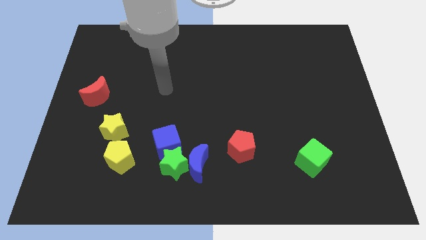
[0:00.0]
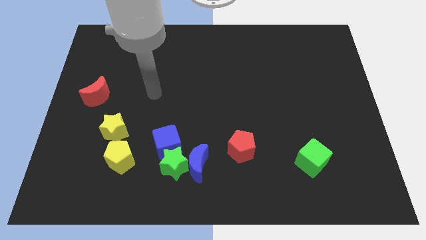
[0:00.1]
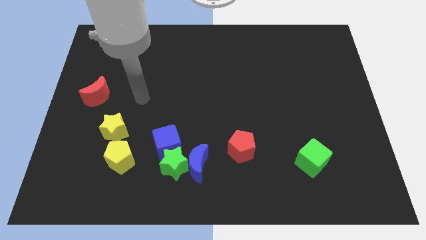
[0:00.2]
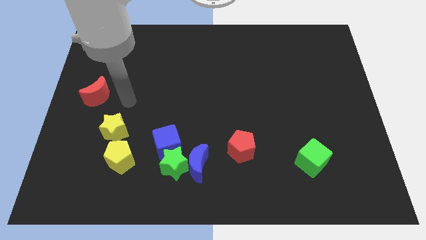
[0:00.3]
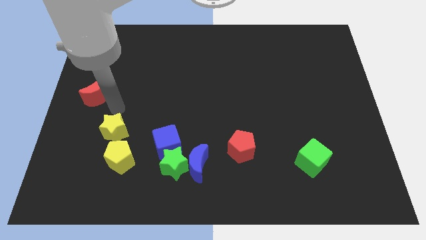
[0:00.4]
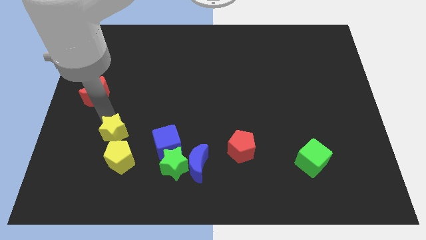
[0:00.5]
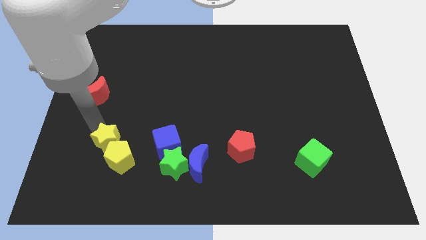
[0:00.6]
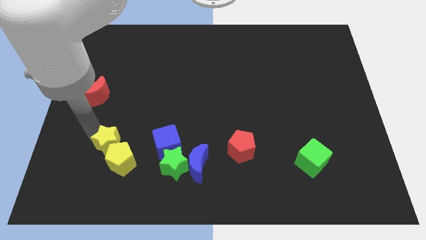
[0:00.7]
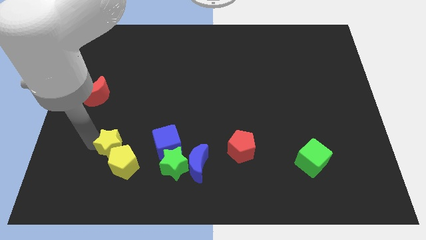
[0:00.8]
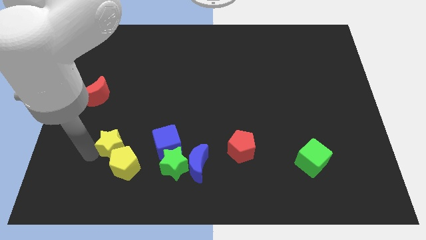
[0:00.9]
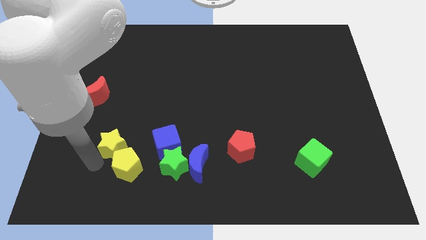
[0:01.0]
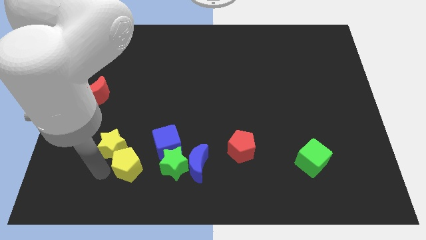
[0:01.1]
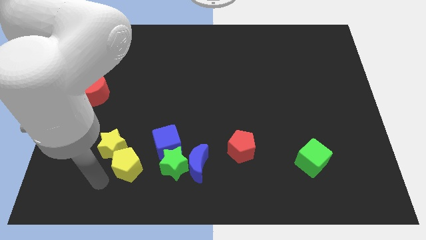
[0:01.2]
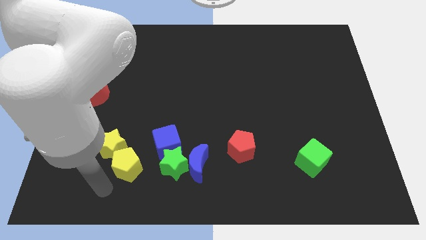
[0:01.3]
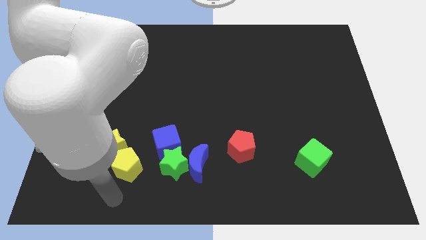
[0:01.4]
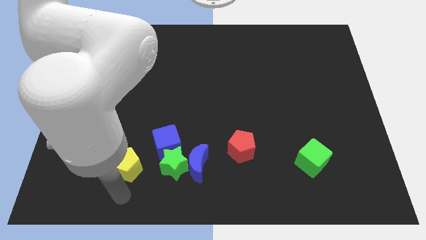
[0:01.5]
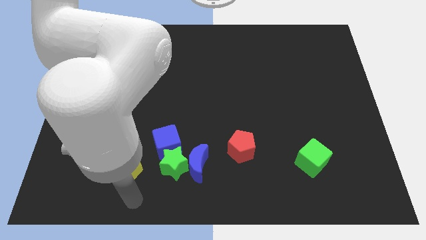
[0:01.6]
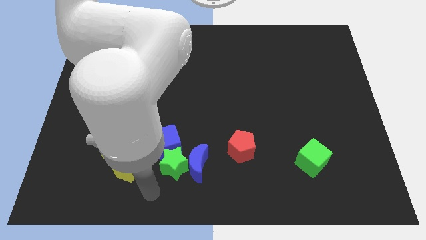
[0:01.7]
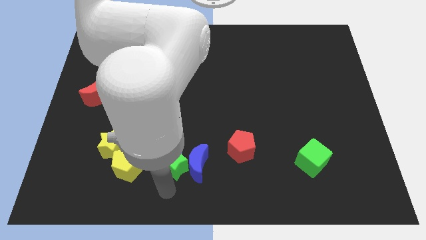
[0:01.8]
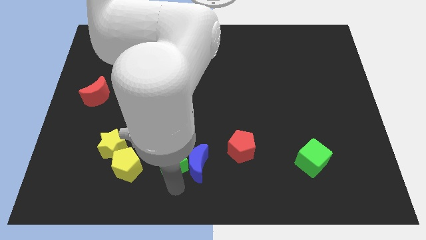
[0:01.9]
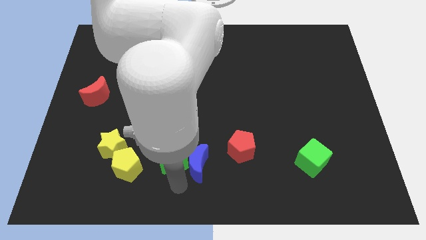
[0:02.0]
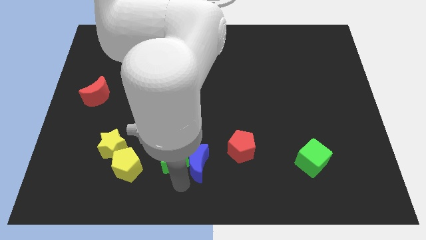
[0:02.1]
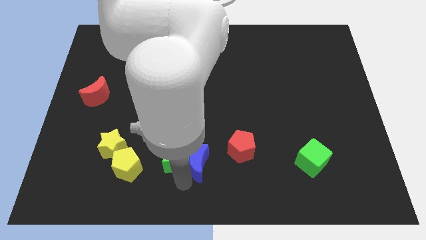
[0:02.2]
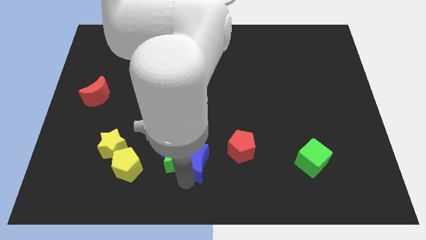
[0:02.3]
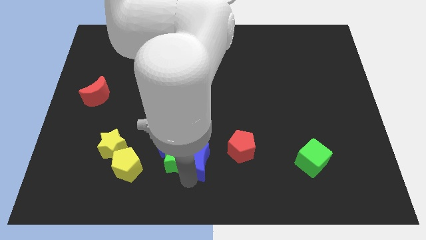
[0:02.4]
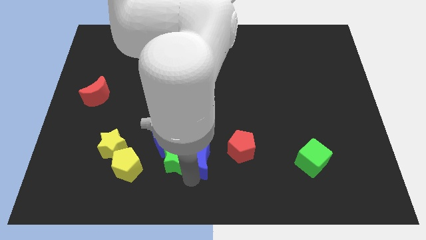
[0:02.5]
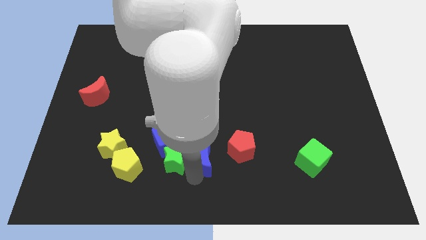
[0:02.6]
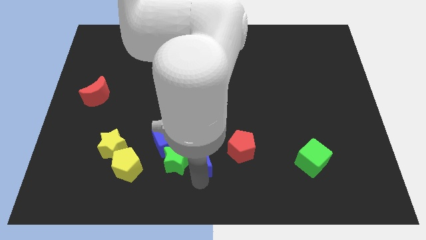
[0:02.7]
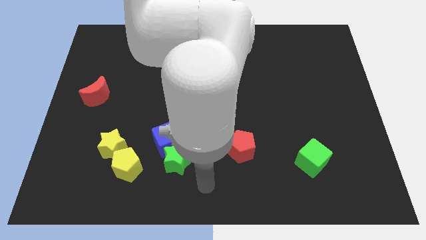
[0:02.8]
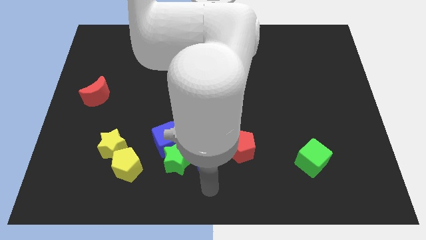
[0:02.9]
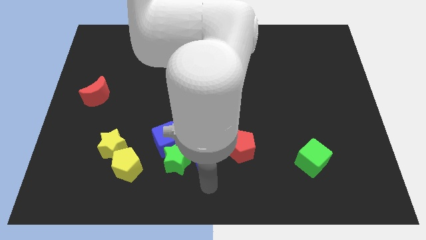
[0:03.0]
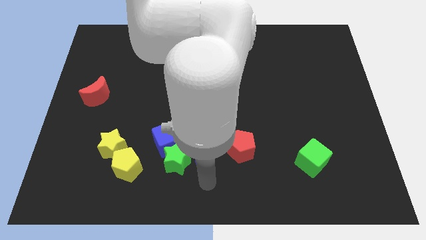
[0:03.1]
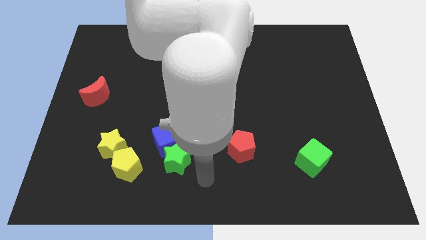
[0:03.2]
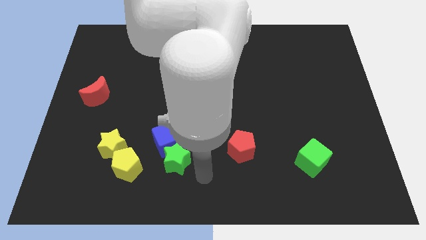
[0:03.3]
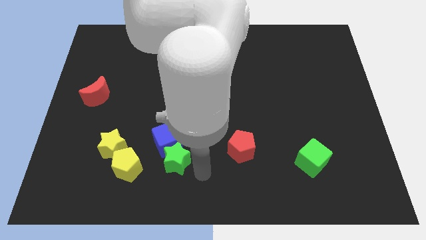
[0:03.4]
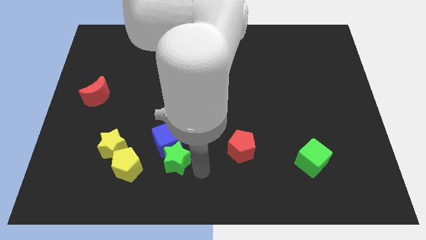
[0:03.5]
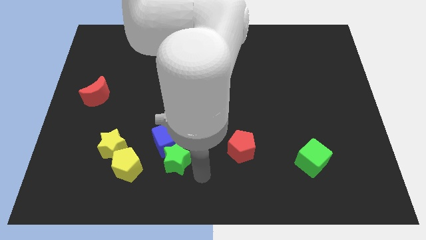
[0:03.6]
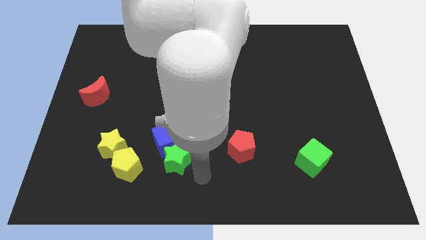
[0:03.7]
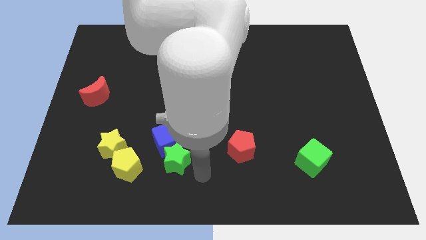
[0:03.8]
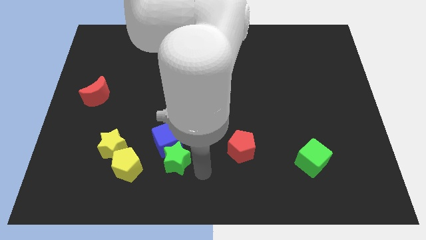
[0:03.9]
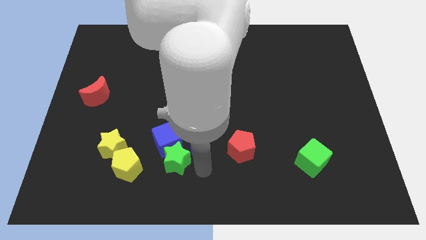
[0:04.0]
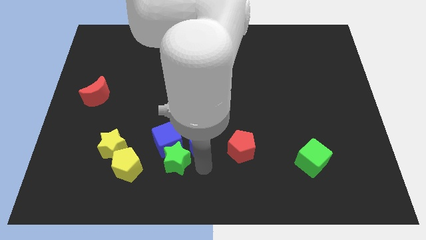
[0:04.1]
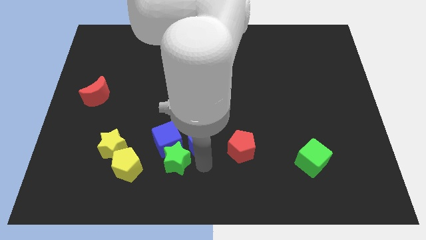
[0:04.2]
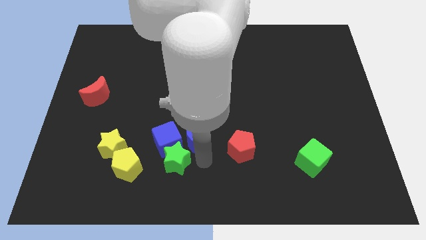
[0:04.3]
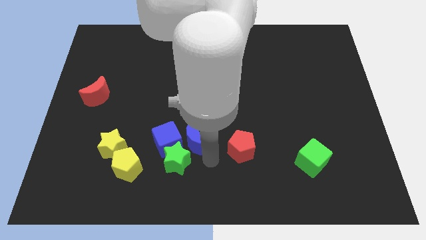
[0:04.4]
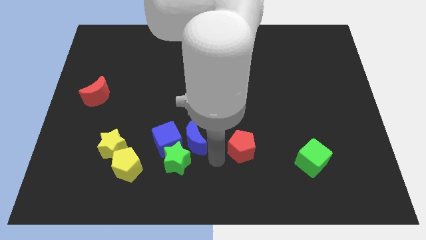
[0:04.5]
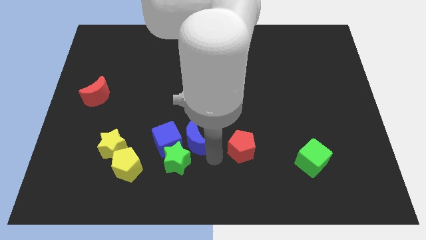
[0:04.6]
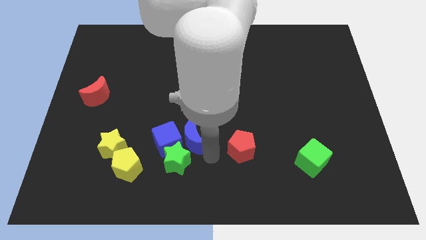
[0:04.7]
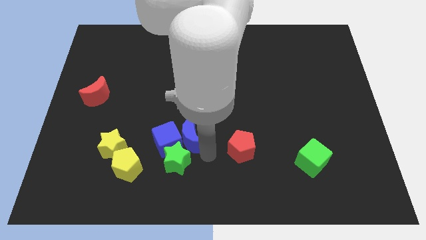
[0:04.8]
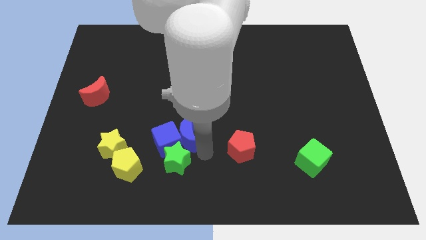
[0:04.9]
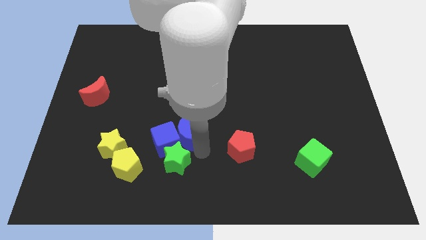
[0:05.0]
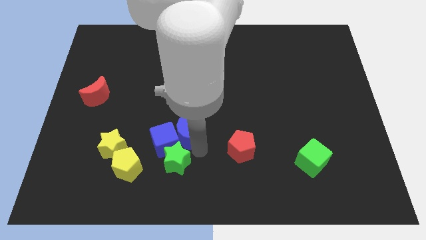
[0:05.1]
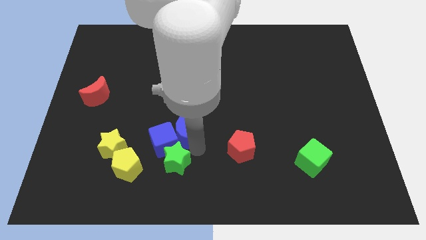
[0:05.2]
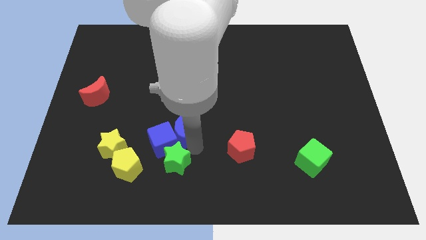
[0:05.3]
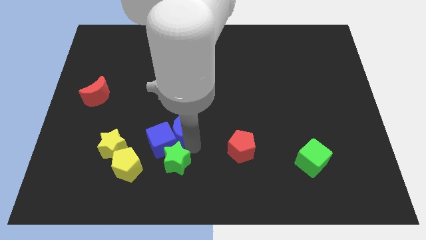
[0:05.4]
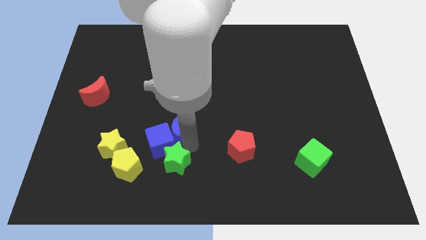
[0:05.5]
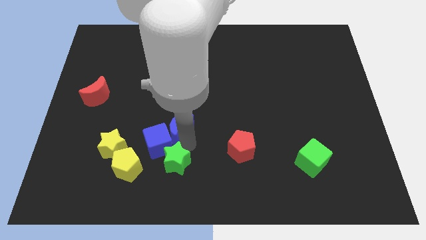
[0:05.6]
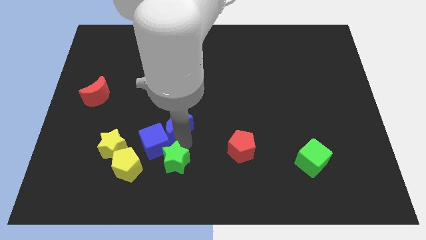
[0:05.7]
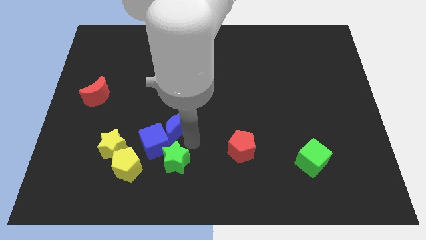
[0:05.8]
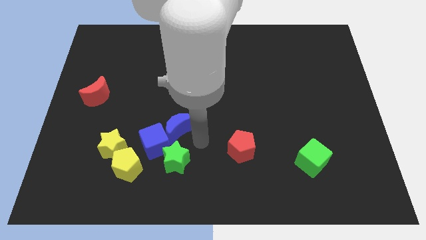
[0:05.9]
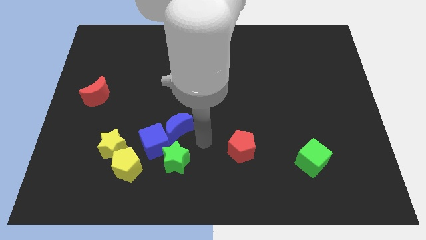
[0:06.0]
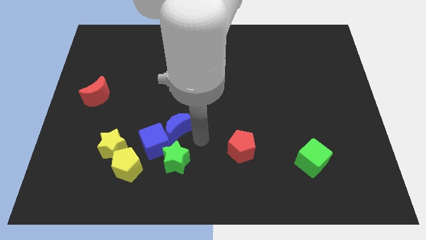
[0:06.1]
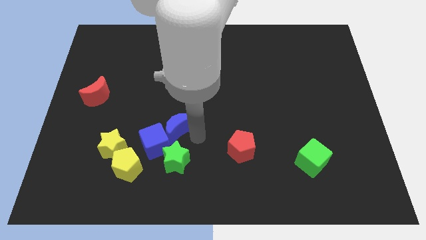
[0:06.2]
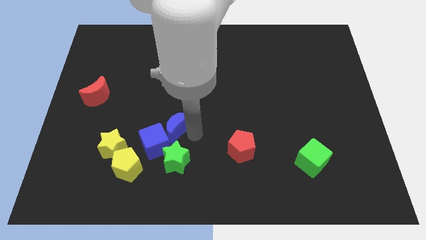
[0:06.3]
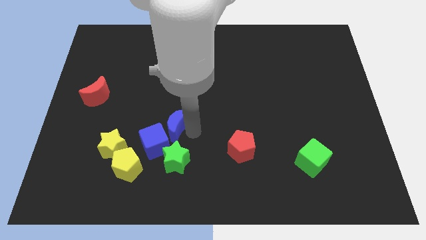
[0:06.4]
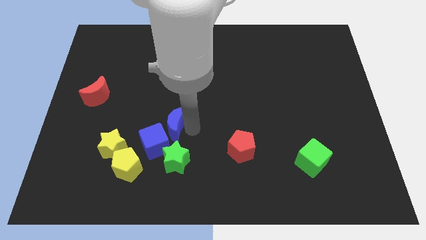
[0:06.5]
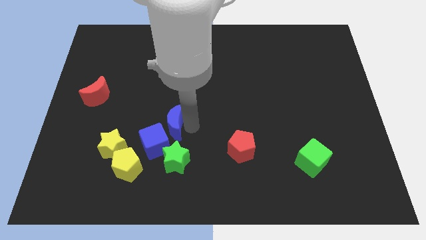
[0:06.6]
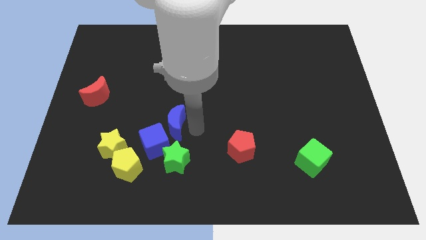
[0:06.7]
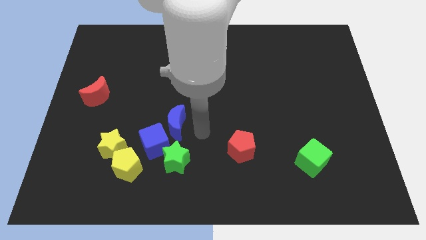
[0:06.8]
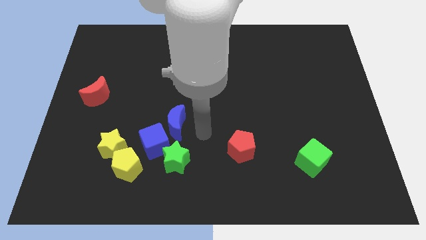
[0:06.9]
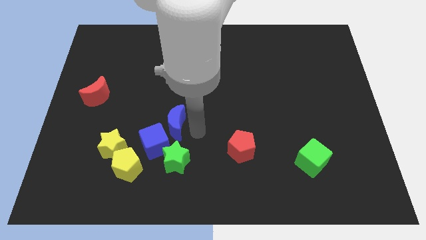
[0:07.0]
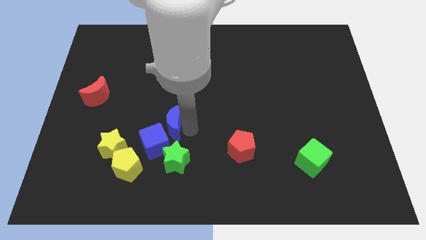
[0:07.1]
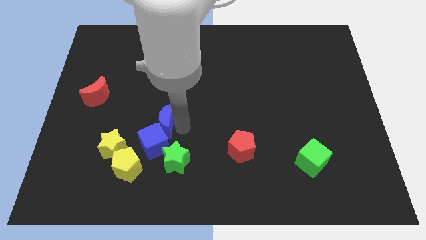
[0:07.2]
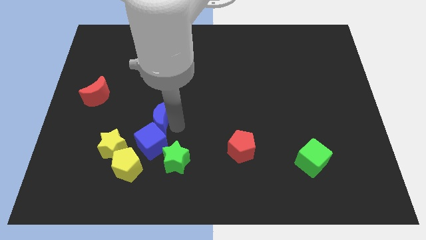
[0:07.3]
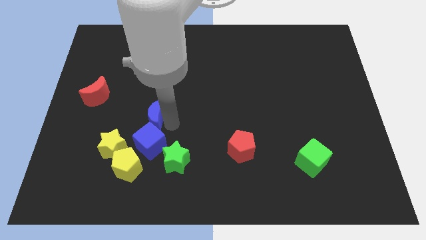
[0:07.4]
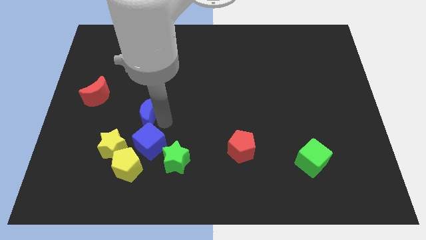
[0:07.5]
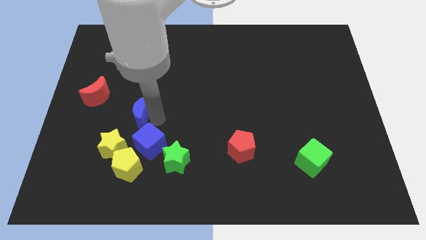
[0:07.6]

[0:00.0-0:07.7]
put the blue moon to the top of the yellow star
